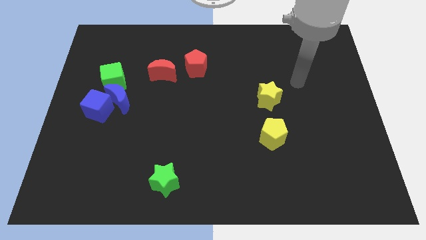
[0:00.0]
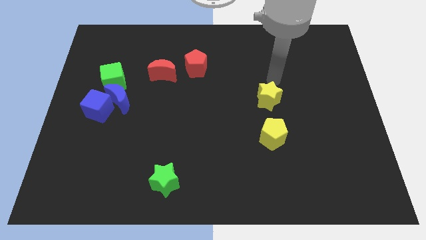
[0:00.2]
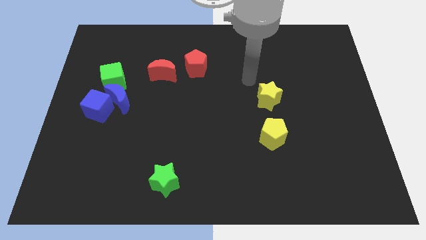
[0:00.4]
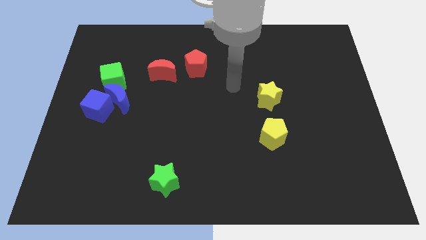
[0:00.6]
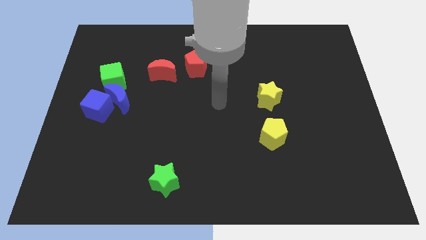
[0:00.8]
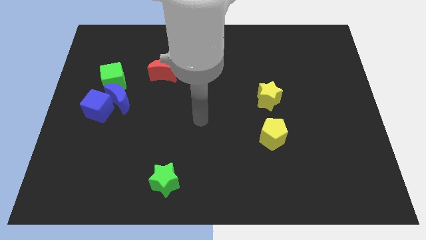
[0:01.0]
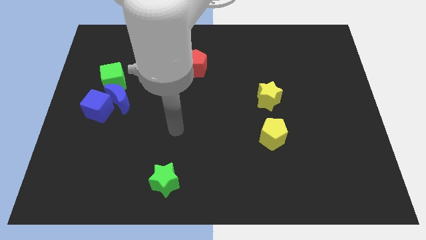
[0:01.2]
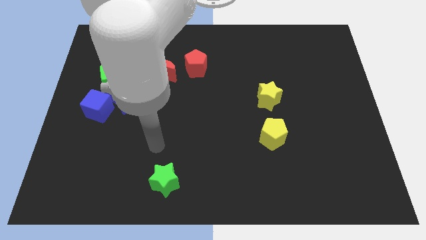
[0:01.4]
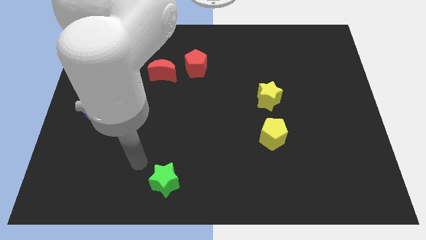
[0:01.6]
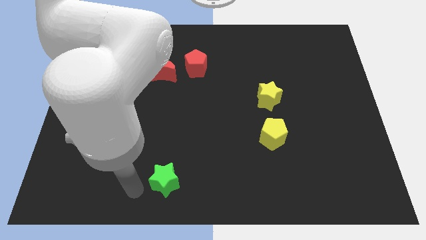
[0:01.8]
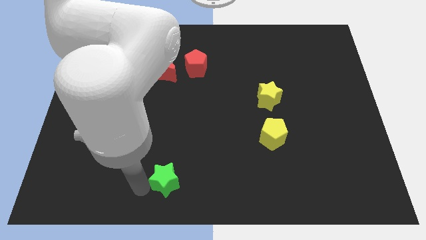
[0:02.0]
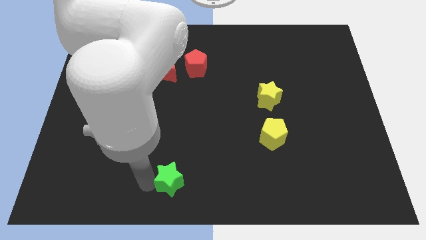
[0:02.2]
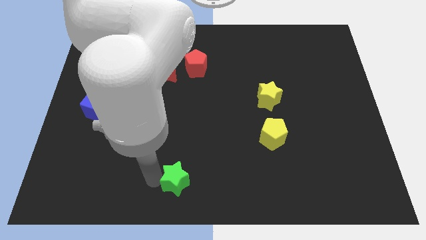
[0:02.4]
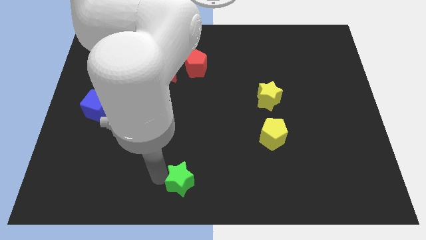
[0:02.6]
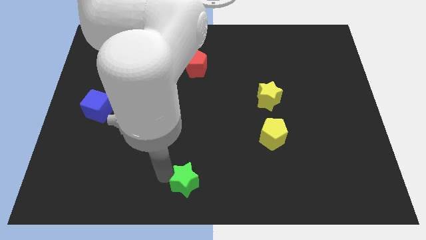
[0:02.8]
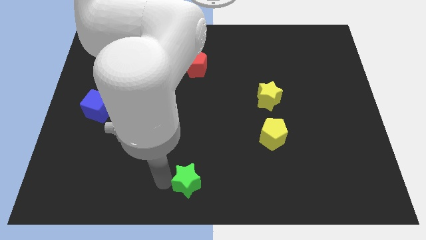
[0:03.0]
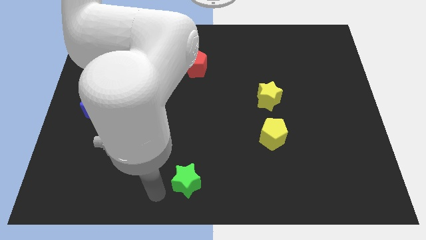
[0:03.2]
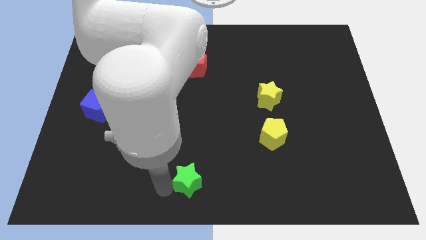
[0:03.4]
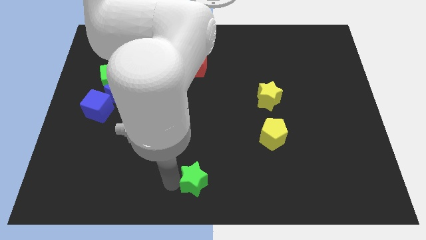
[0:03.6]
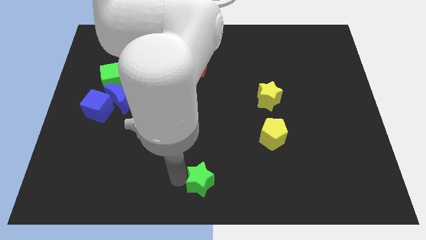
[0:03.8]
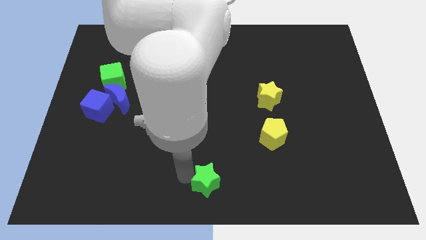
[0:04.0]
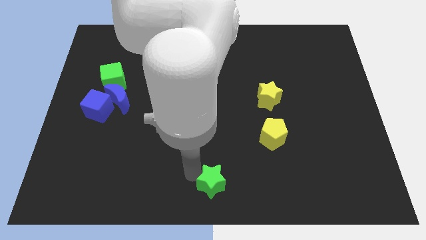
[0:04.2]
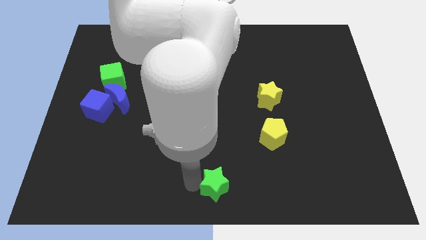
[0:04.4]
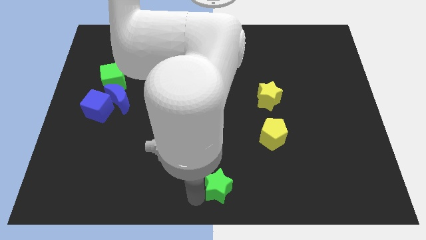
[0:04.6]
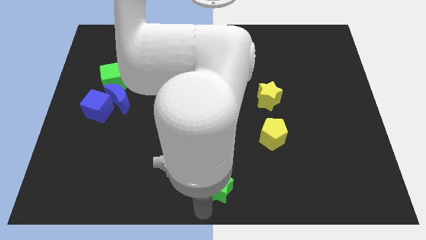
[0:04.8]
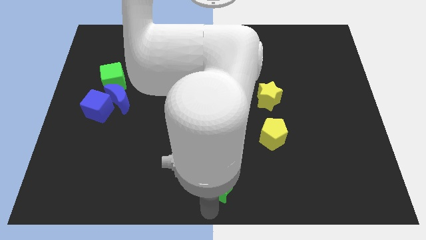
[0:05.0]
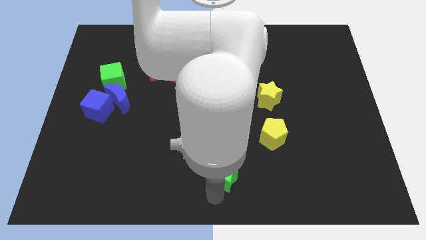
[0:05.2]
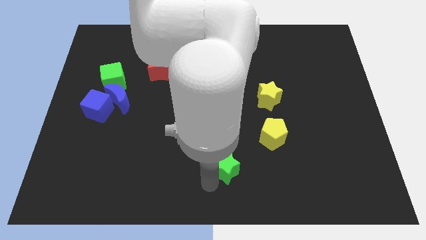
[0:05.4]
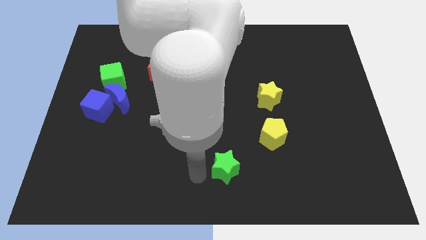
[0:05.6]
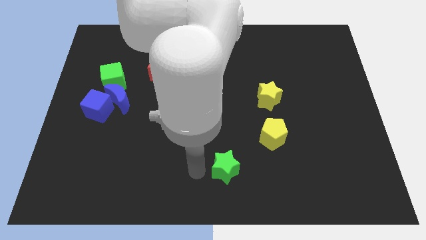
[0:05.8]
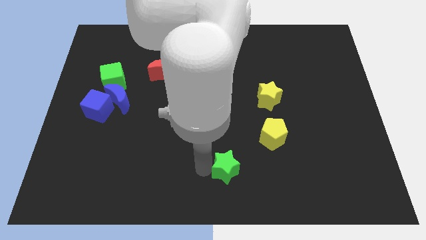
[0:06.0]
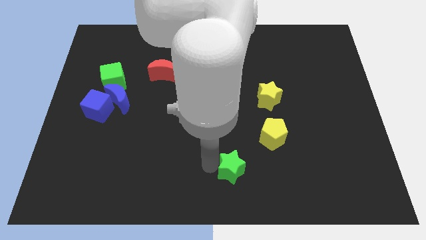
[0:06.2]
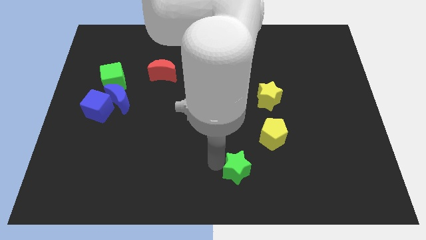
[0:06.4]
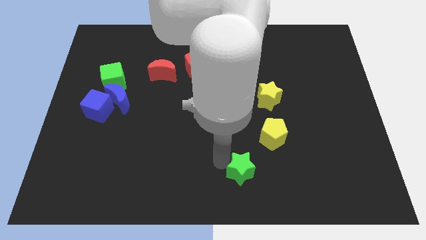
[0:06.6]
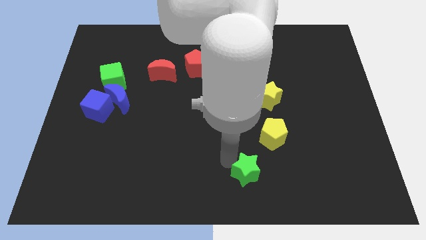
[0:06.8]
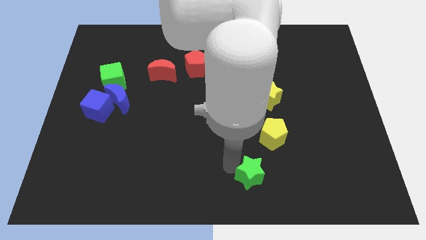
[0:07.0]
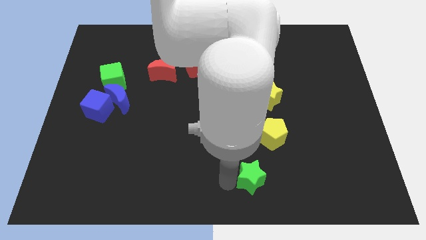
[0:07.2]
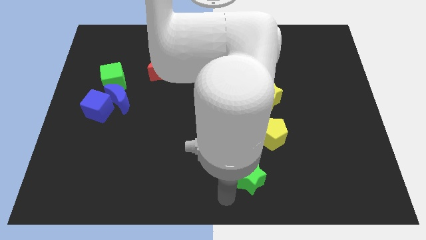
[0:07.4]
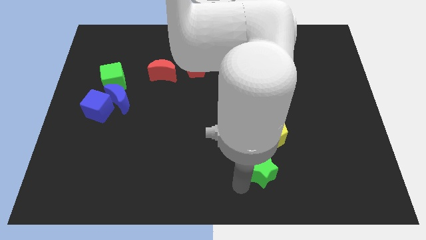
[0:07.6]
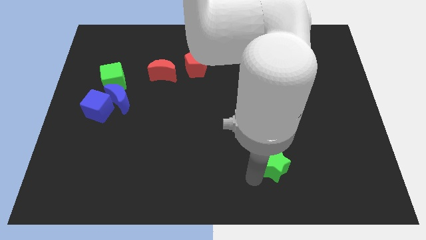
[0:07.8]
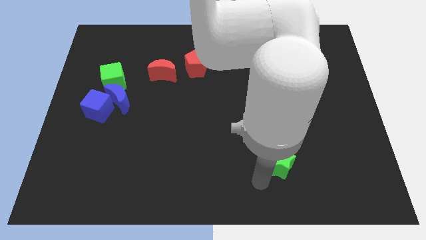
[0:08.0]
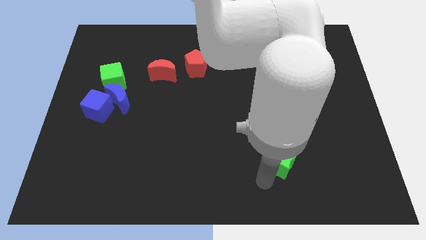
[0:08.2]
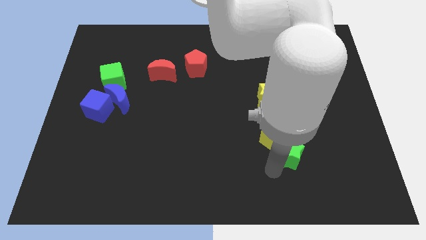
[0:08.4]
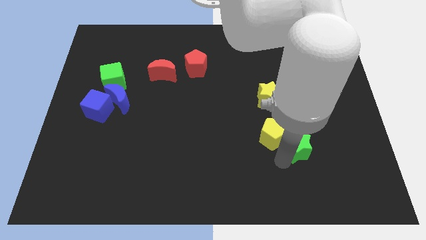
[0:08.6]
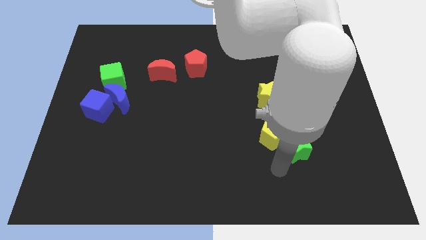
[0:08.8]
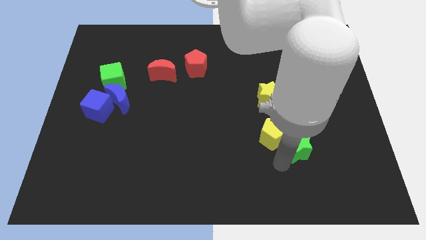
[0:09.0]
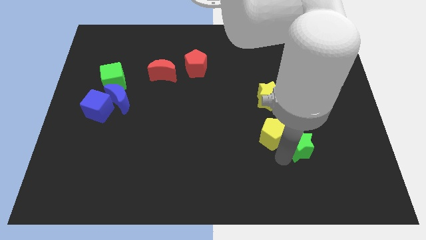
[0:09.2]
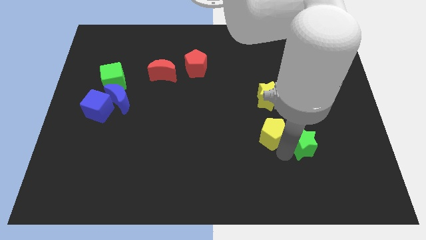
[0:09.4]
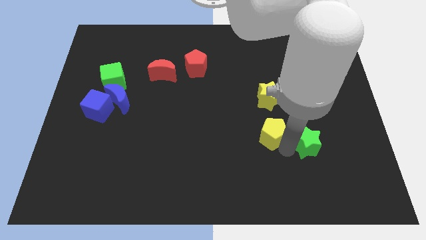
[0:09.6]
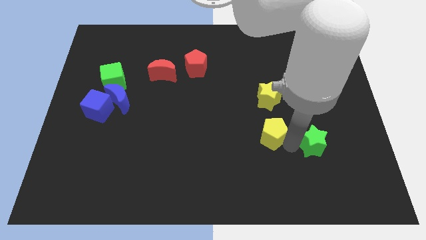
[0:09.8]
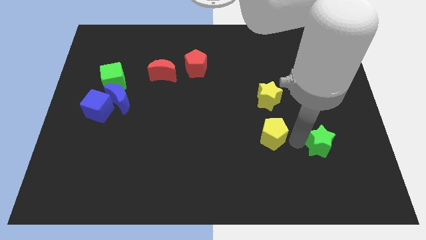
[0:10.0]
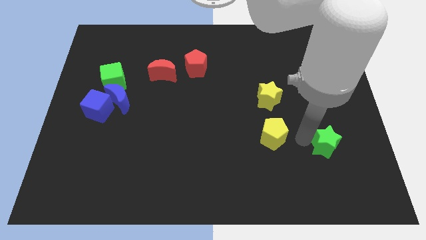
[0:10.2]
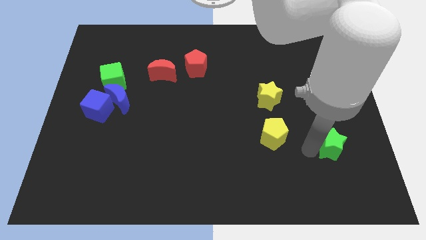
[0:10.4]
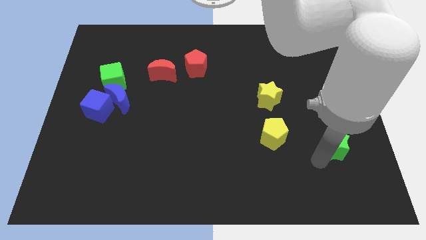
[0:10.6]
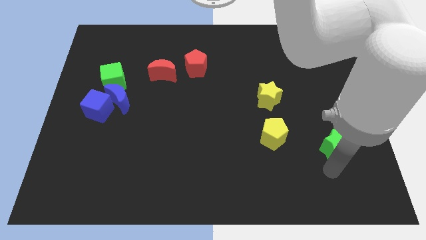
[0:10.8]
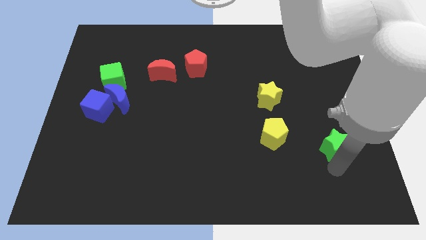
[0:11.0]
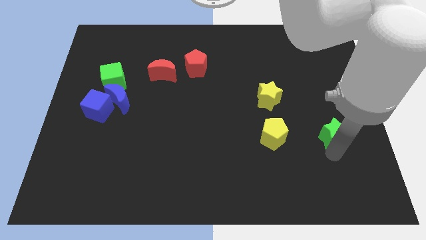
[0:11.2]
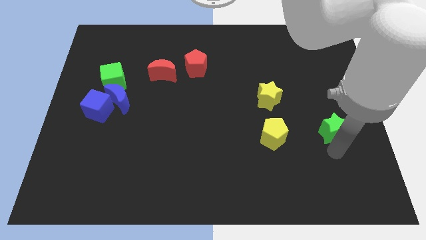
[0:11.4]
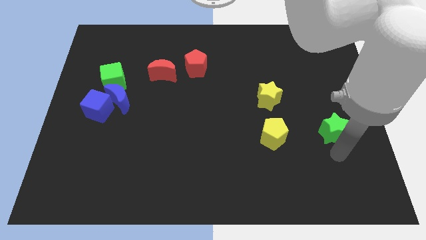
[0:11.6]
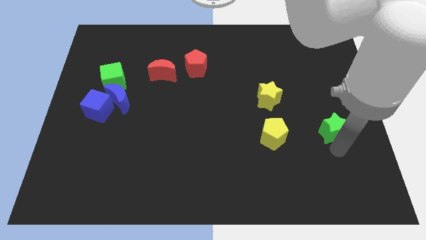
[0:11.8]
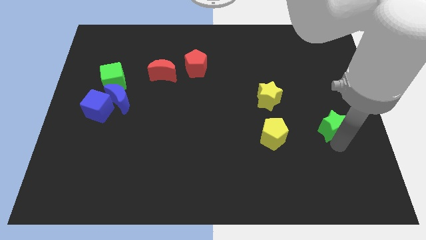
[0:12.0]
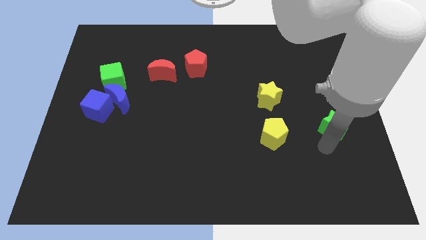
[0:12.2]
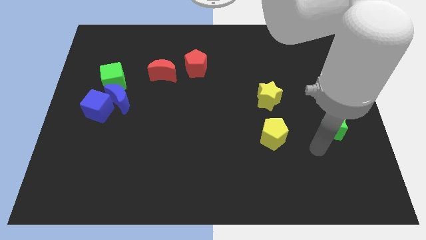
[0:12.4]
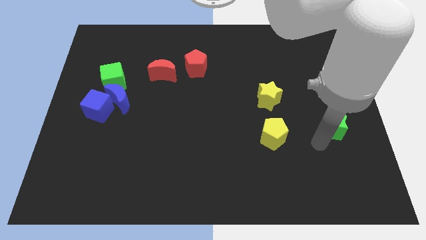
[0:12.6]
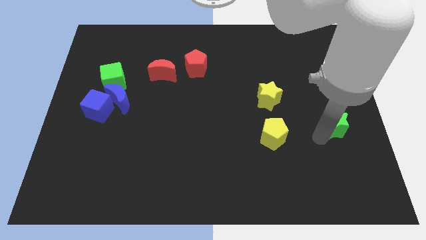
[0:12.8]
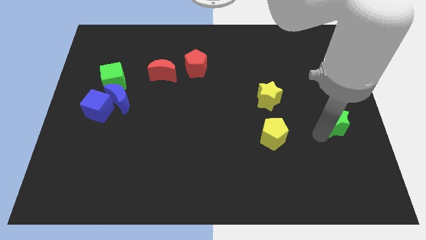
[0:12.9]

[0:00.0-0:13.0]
push the green star to the right side of the board

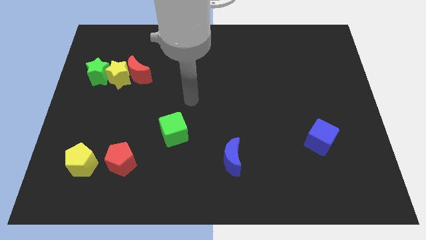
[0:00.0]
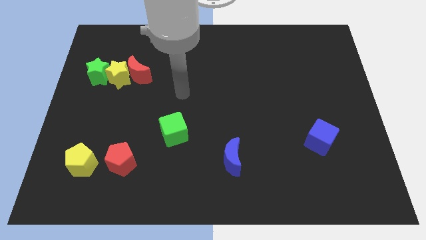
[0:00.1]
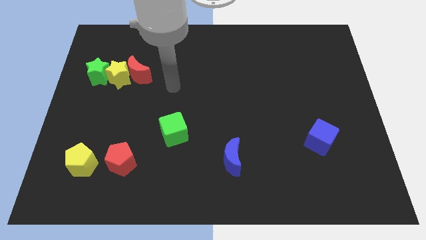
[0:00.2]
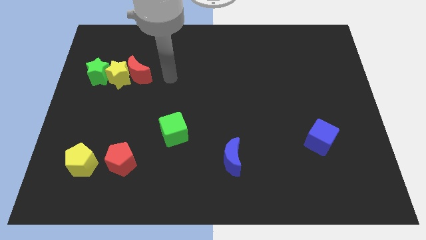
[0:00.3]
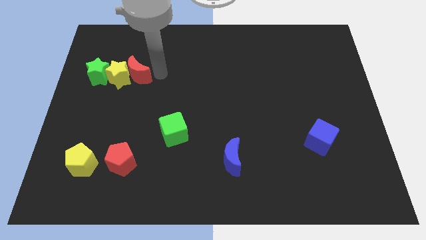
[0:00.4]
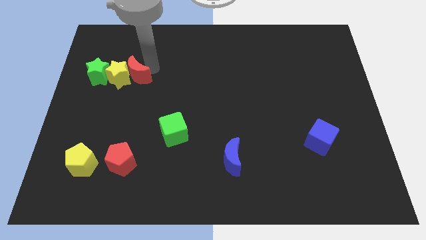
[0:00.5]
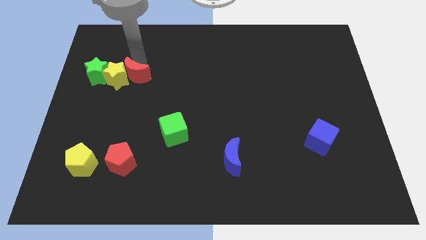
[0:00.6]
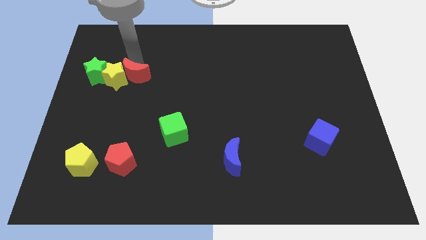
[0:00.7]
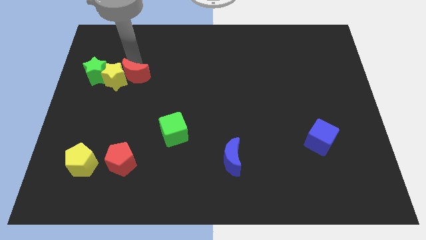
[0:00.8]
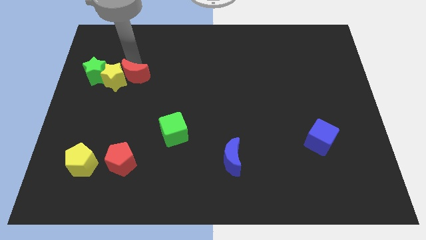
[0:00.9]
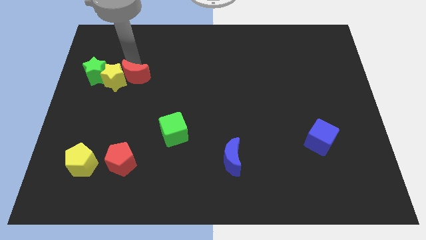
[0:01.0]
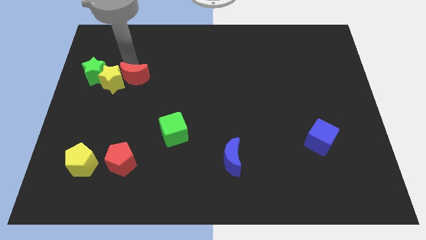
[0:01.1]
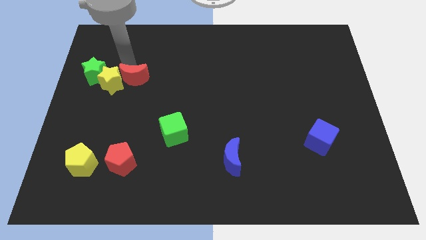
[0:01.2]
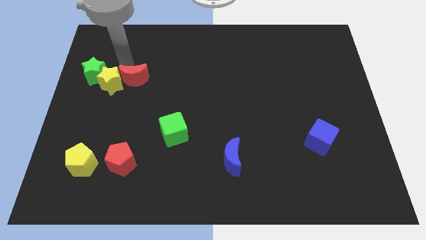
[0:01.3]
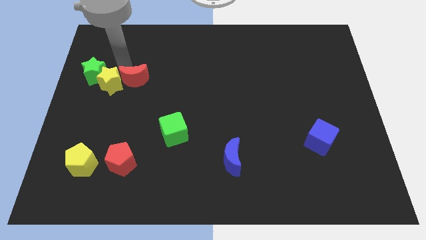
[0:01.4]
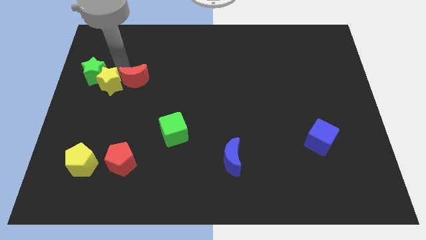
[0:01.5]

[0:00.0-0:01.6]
move the yellow star to the center left
